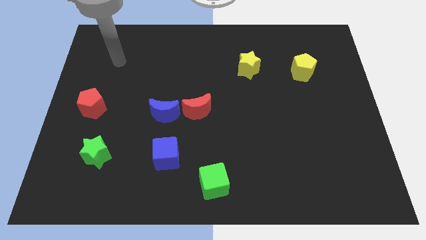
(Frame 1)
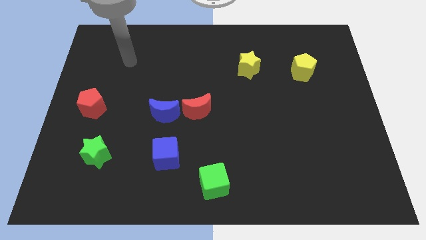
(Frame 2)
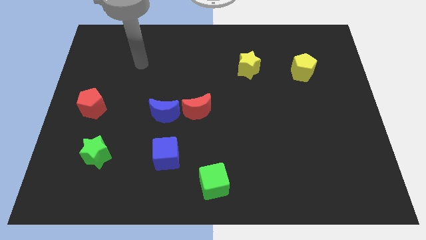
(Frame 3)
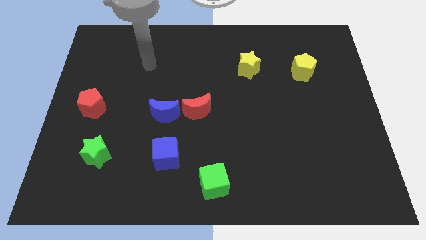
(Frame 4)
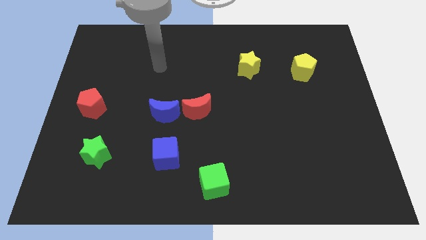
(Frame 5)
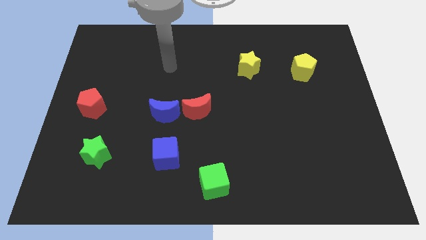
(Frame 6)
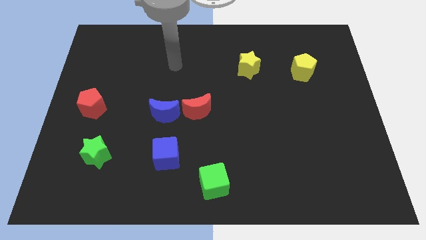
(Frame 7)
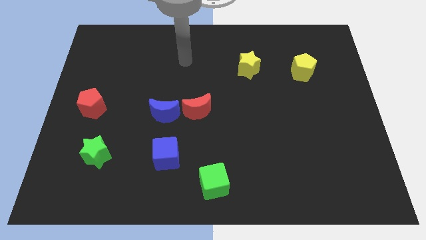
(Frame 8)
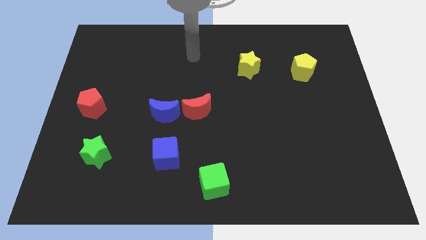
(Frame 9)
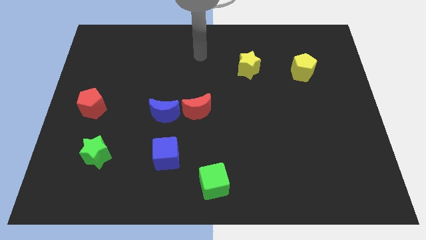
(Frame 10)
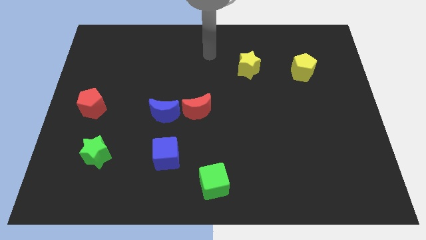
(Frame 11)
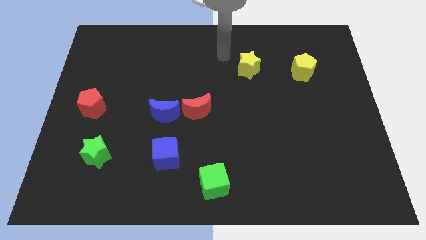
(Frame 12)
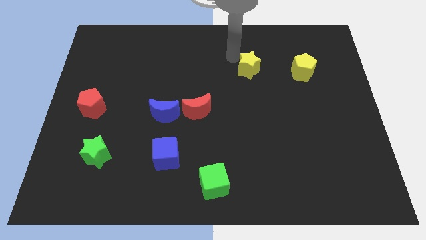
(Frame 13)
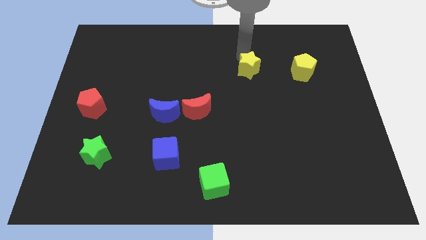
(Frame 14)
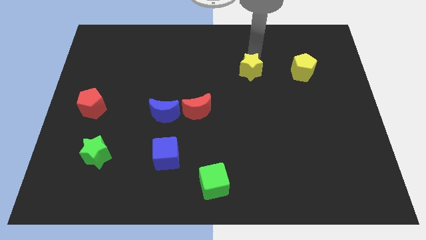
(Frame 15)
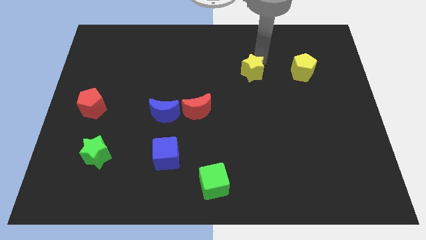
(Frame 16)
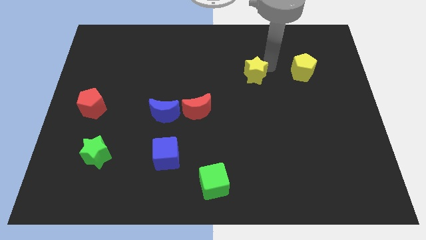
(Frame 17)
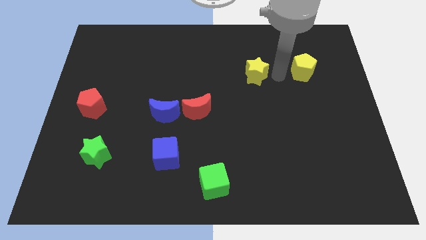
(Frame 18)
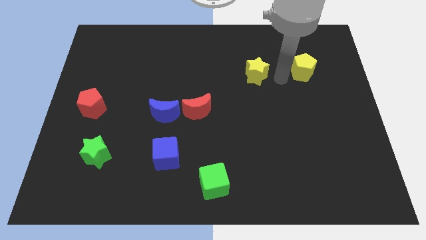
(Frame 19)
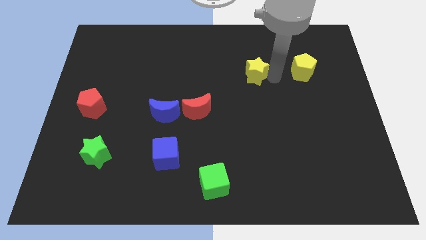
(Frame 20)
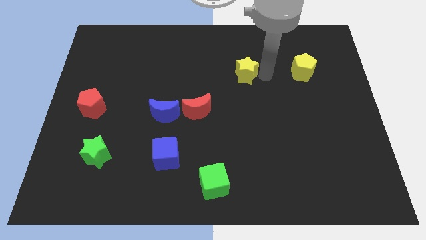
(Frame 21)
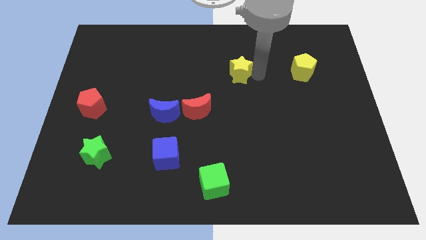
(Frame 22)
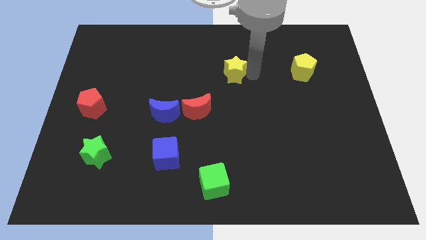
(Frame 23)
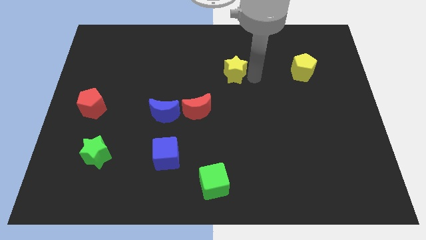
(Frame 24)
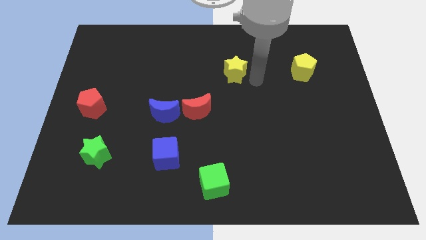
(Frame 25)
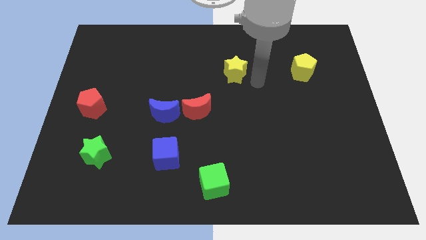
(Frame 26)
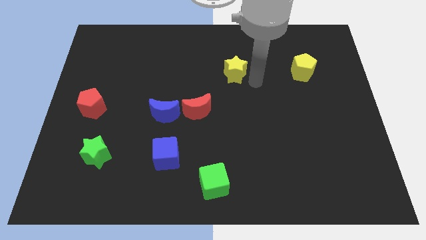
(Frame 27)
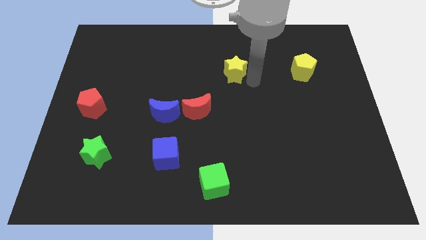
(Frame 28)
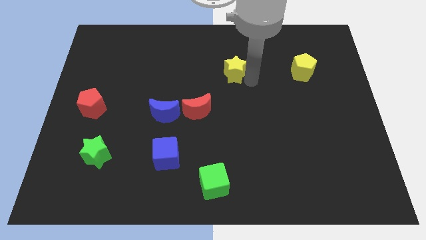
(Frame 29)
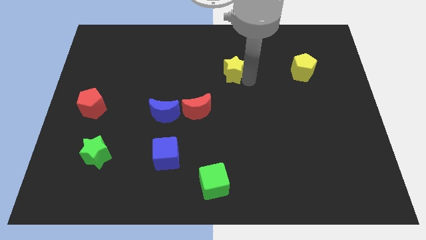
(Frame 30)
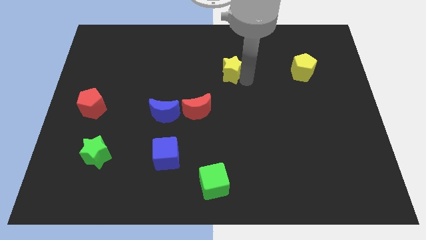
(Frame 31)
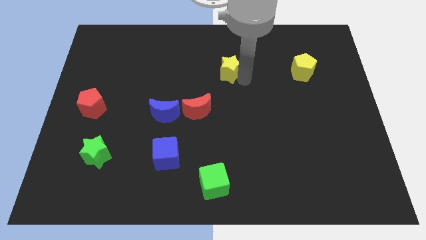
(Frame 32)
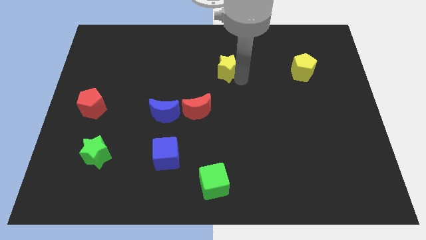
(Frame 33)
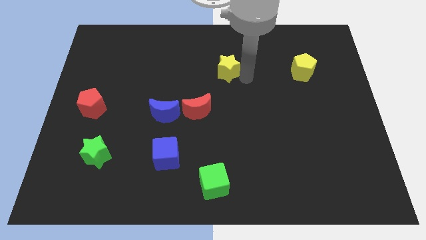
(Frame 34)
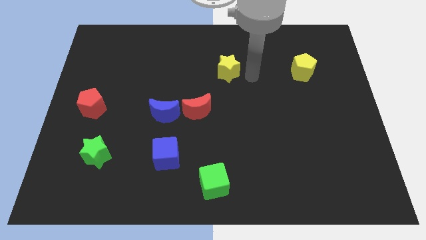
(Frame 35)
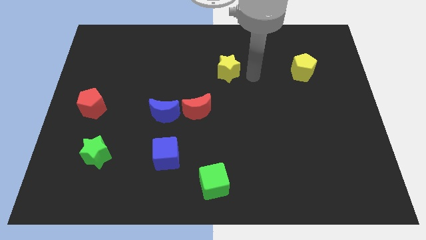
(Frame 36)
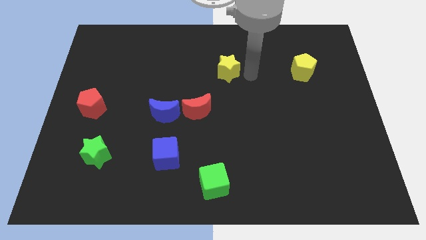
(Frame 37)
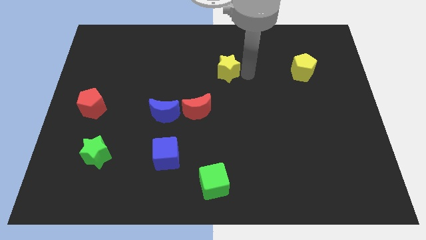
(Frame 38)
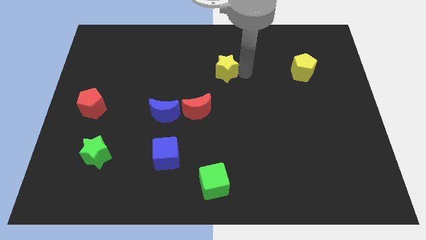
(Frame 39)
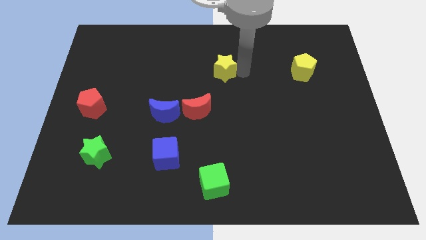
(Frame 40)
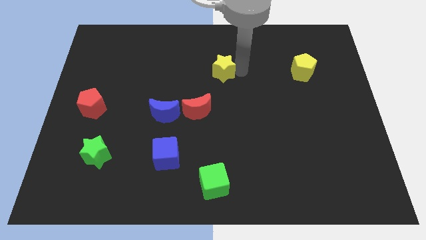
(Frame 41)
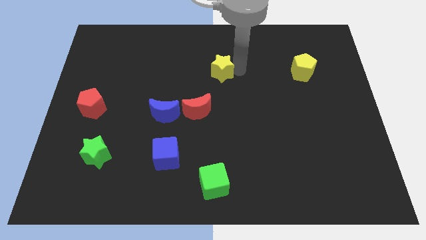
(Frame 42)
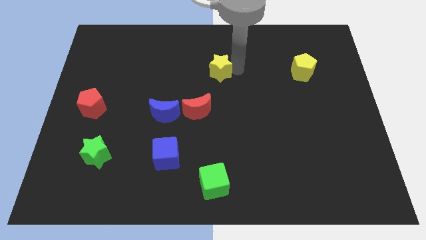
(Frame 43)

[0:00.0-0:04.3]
push the yellow star somewhat left

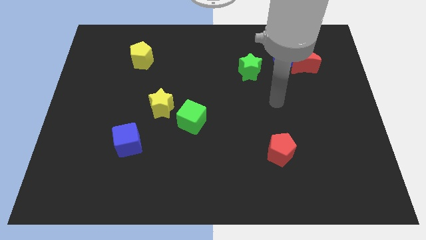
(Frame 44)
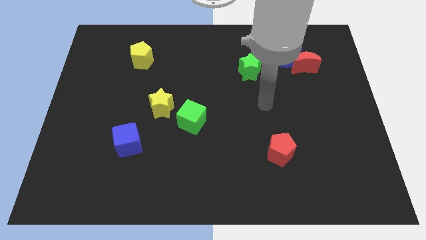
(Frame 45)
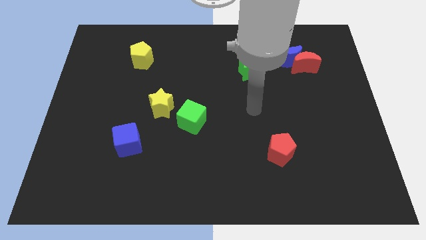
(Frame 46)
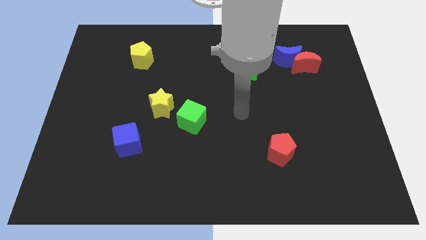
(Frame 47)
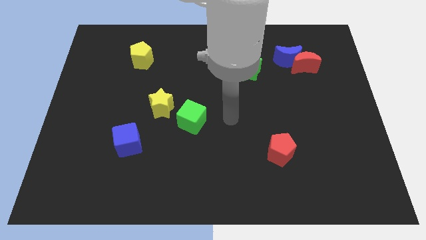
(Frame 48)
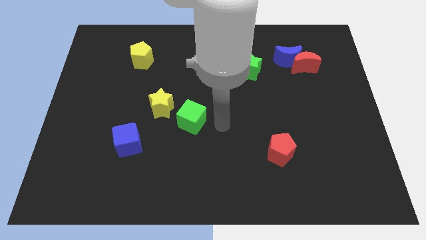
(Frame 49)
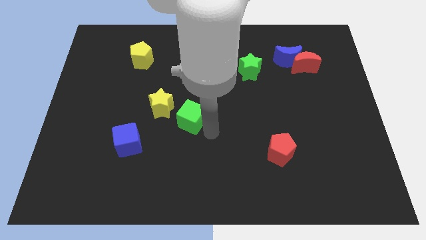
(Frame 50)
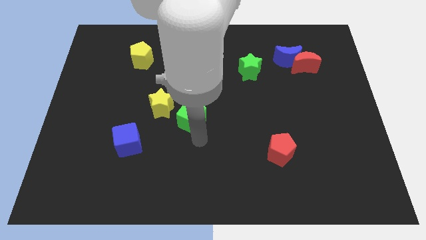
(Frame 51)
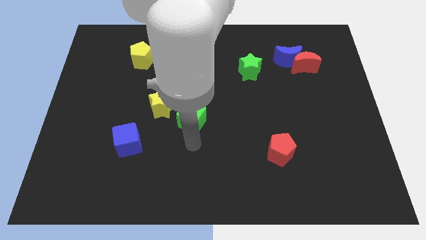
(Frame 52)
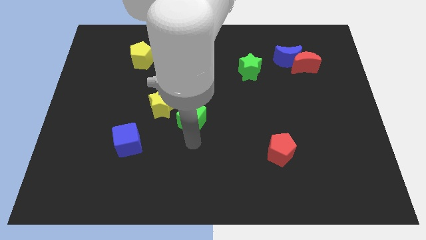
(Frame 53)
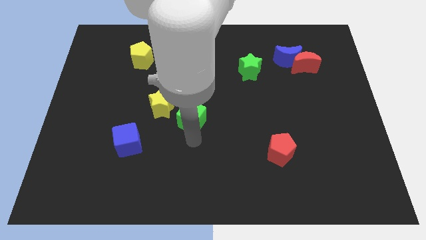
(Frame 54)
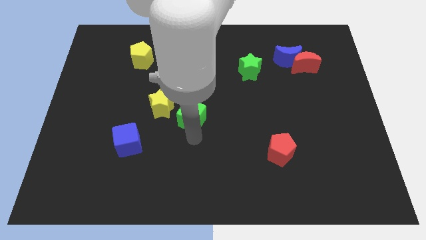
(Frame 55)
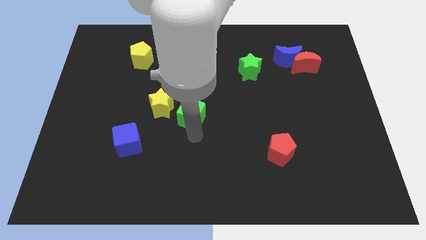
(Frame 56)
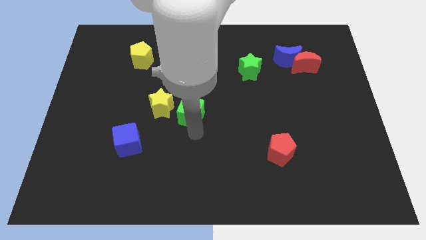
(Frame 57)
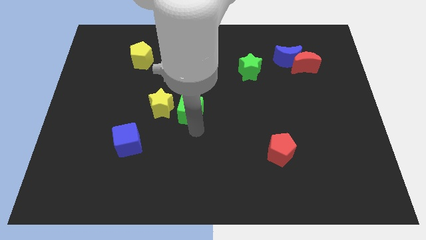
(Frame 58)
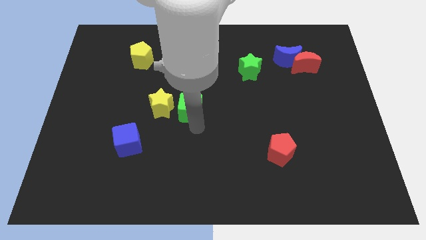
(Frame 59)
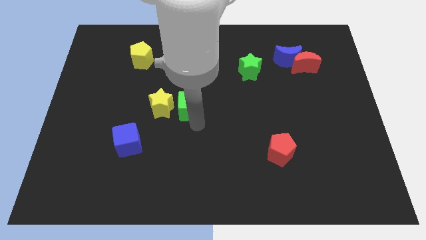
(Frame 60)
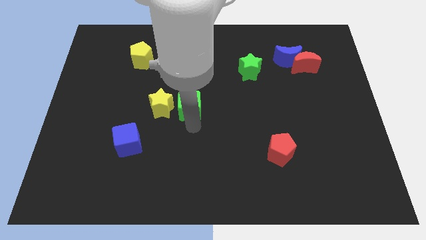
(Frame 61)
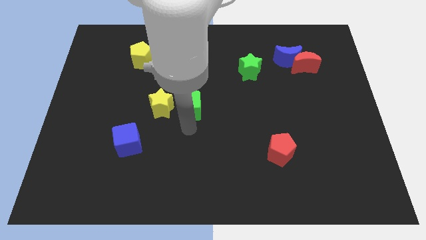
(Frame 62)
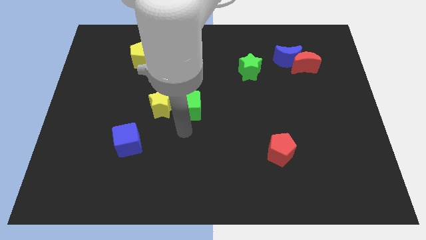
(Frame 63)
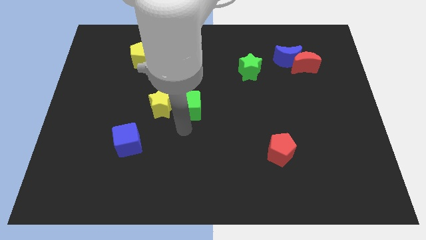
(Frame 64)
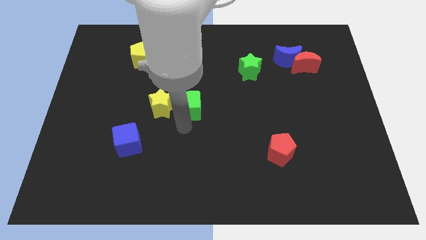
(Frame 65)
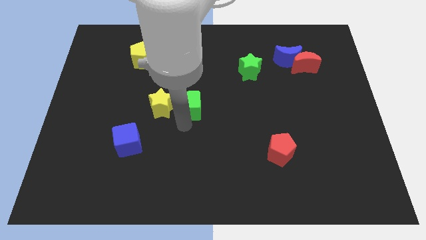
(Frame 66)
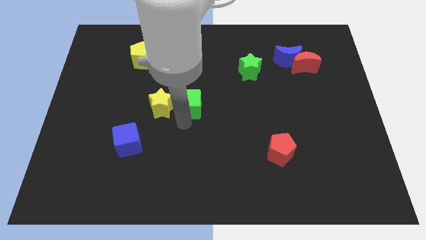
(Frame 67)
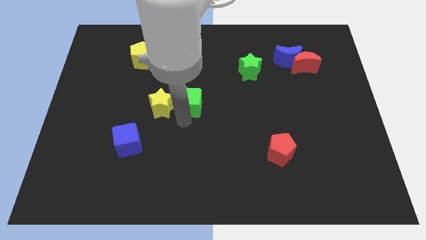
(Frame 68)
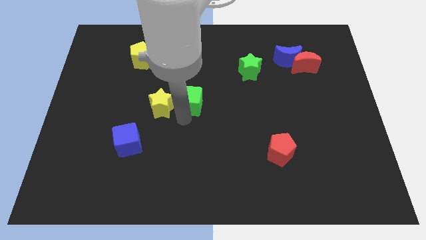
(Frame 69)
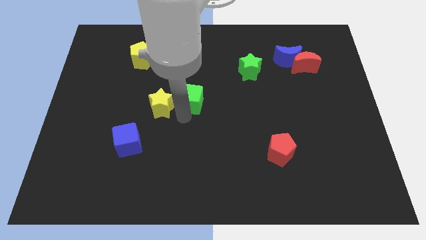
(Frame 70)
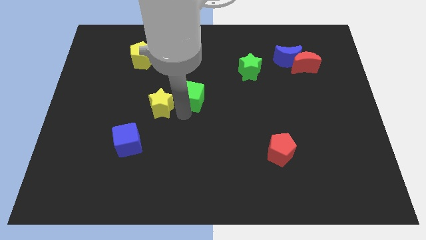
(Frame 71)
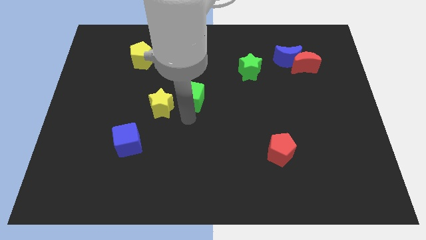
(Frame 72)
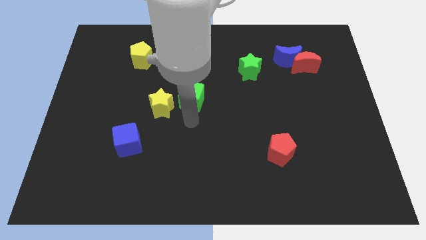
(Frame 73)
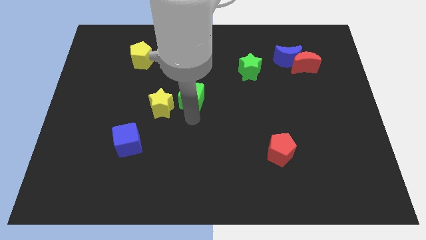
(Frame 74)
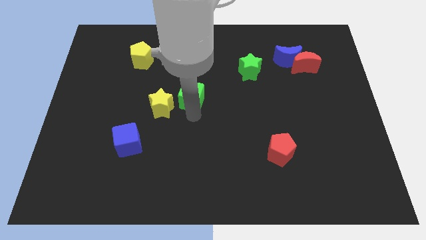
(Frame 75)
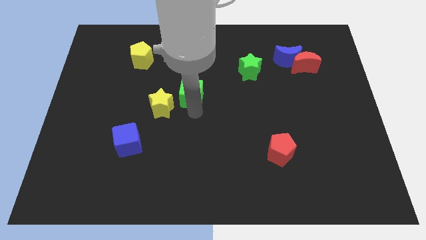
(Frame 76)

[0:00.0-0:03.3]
move the green cube a little up
